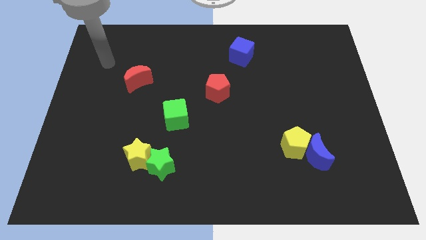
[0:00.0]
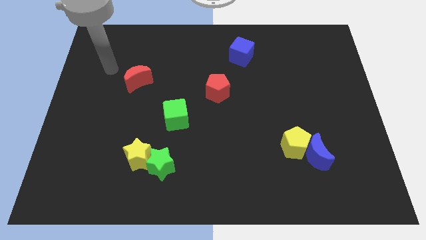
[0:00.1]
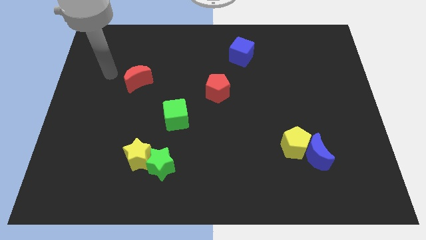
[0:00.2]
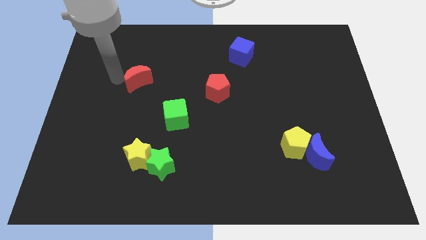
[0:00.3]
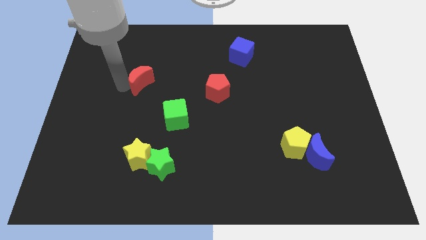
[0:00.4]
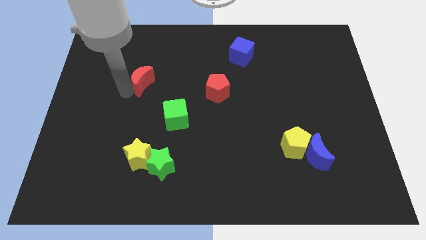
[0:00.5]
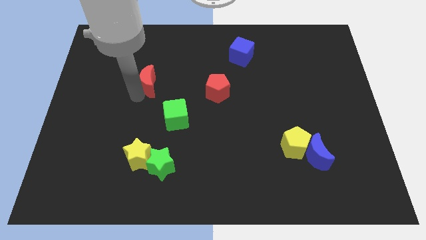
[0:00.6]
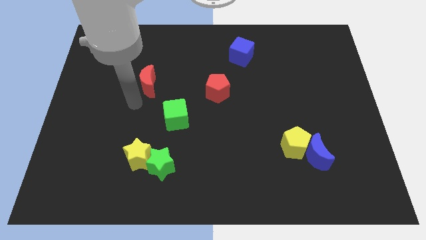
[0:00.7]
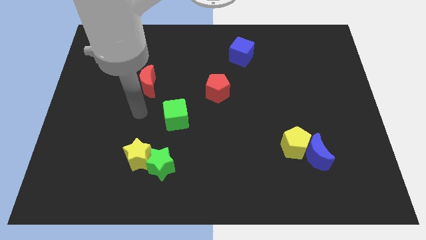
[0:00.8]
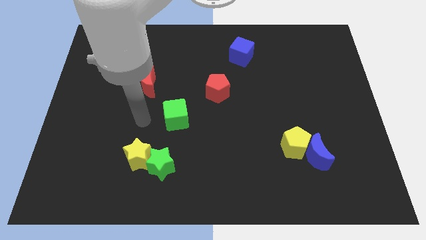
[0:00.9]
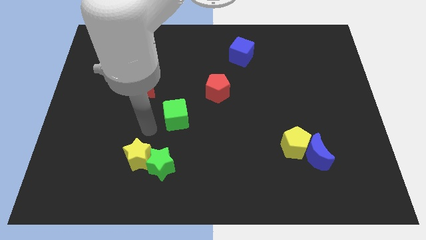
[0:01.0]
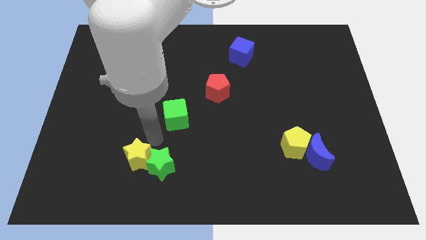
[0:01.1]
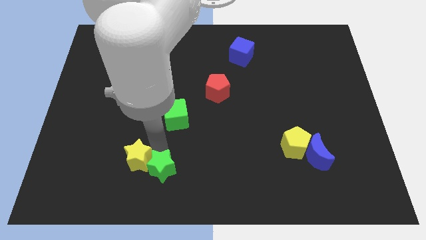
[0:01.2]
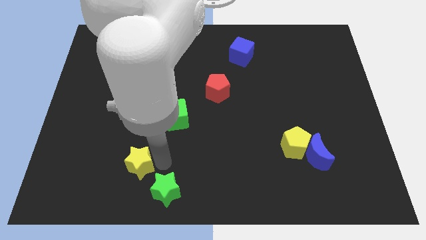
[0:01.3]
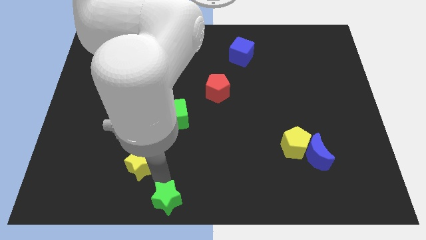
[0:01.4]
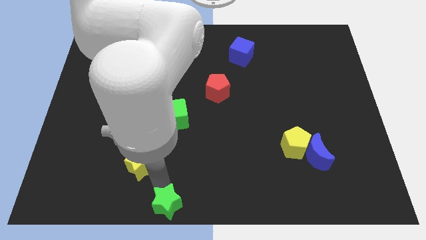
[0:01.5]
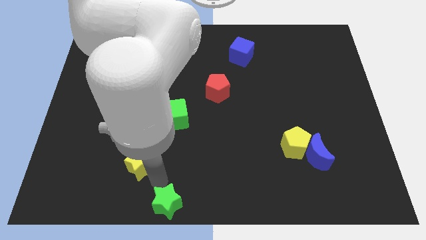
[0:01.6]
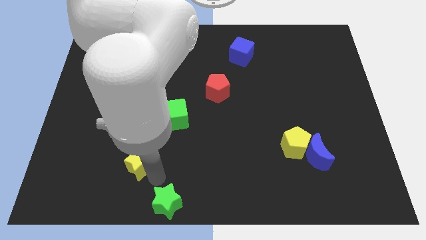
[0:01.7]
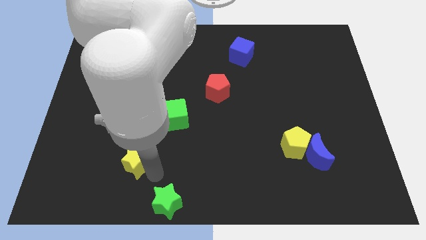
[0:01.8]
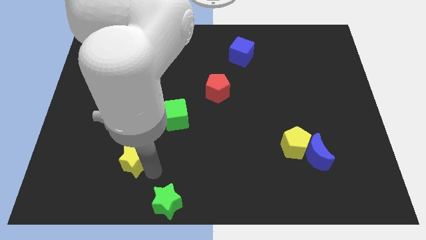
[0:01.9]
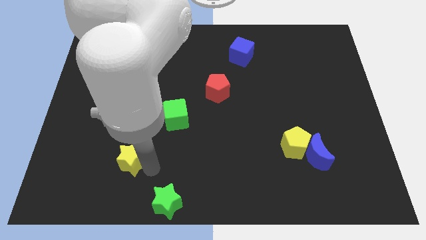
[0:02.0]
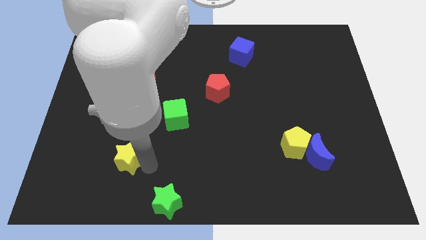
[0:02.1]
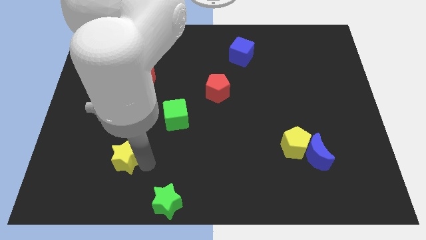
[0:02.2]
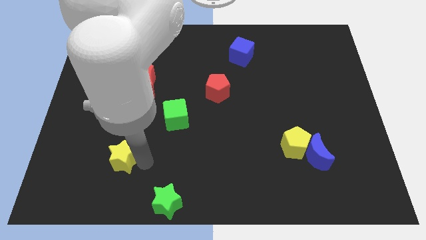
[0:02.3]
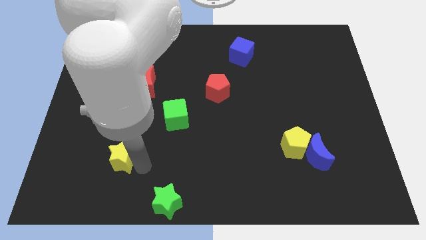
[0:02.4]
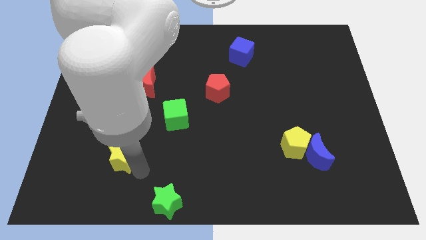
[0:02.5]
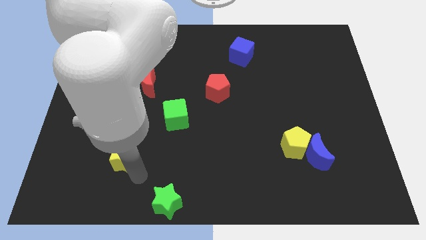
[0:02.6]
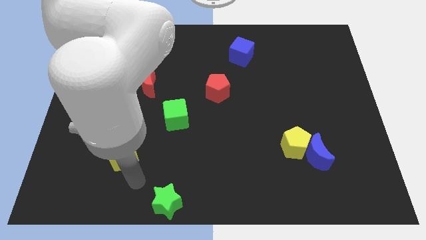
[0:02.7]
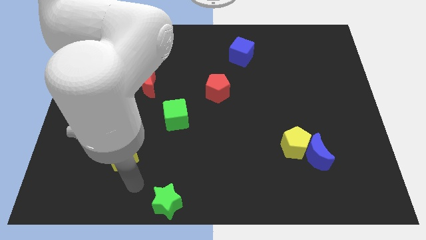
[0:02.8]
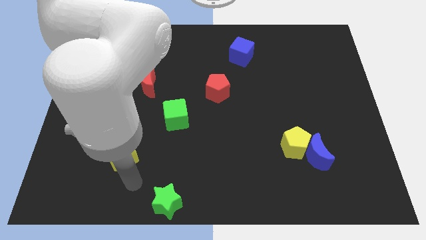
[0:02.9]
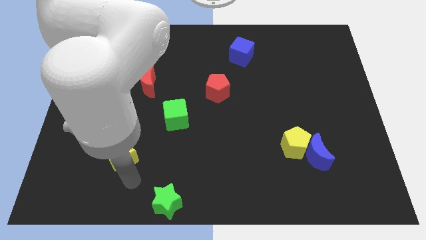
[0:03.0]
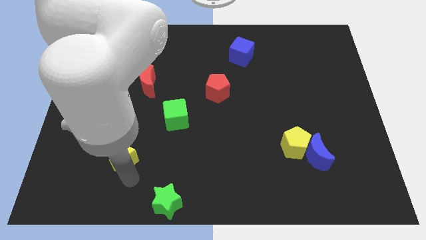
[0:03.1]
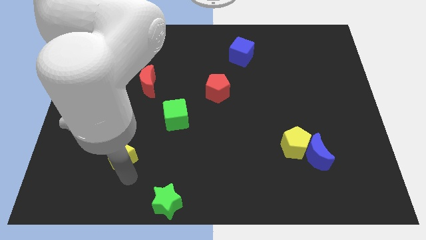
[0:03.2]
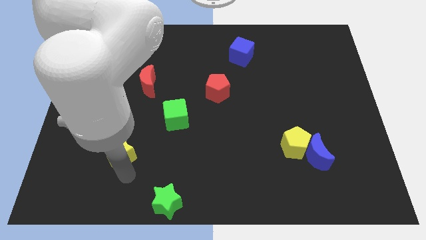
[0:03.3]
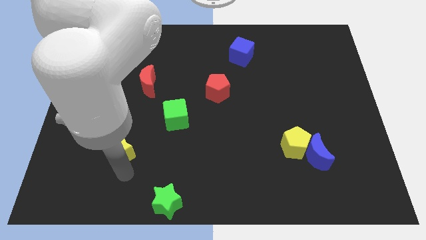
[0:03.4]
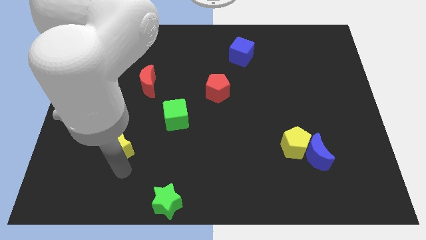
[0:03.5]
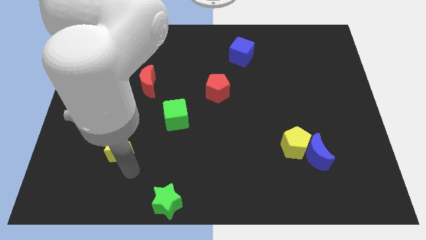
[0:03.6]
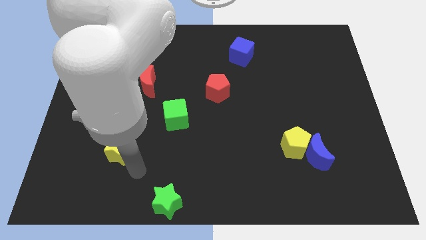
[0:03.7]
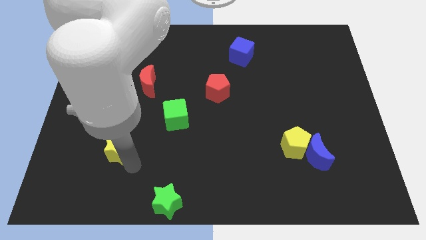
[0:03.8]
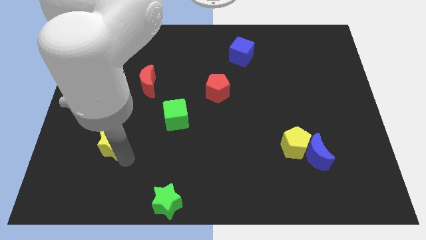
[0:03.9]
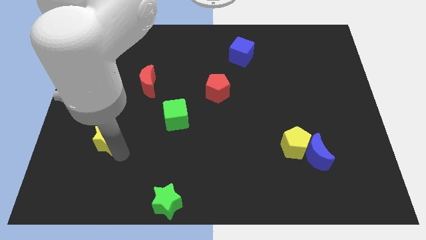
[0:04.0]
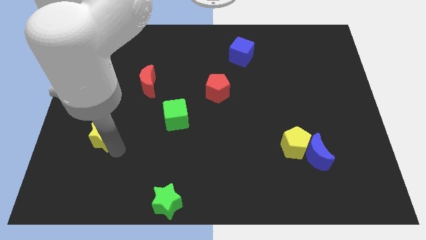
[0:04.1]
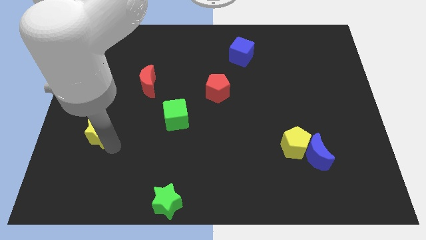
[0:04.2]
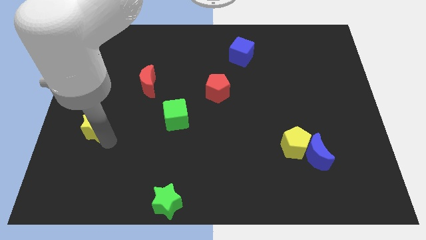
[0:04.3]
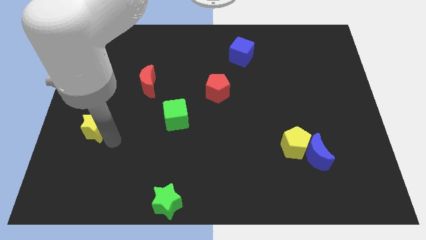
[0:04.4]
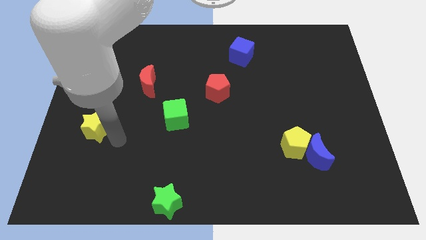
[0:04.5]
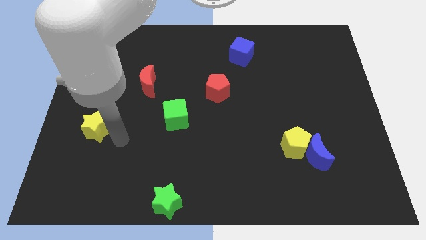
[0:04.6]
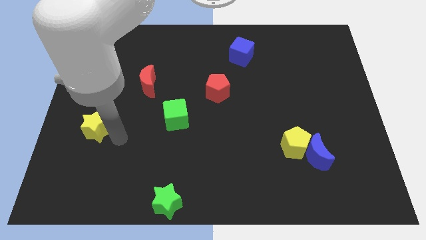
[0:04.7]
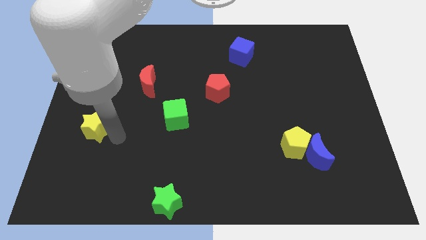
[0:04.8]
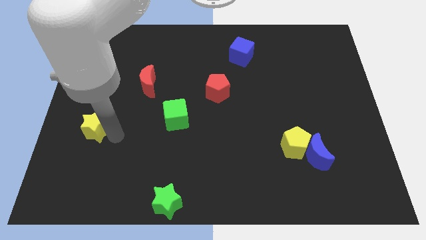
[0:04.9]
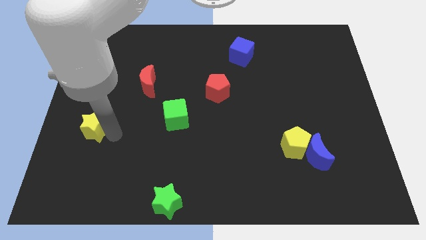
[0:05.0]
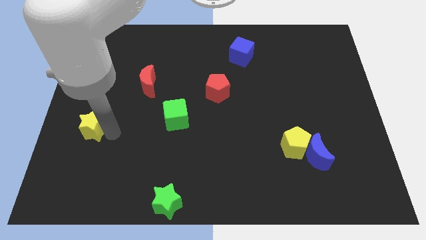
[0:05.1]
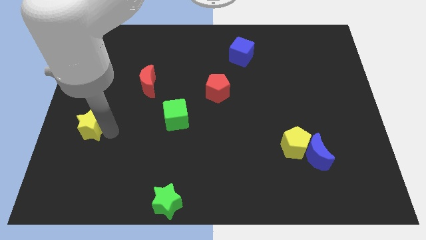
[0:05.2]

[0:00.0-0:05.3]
push the yellow star to the center left

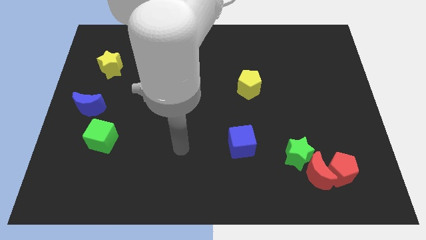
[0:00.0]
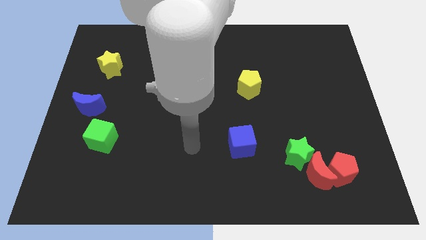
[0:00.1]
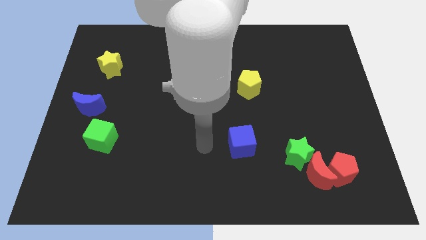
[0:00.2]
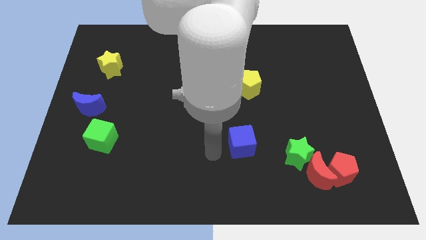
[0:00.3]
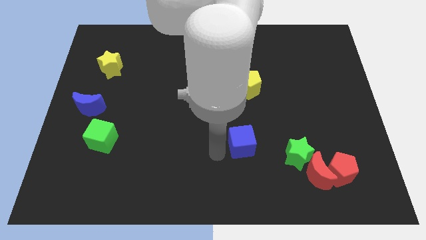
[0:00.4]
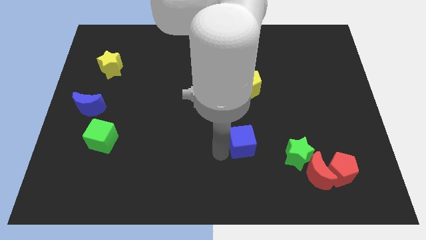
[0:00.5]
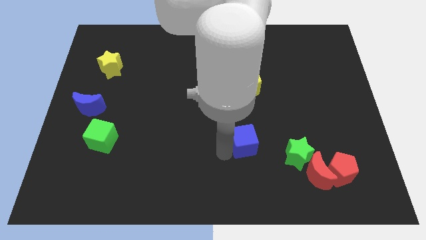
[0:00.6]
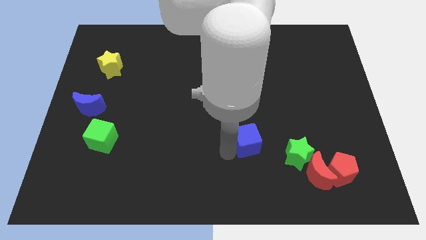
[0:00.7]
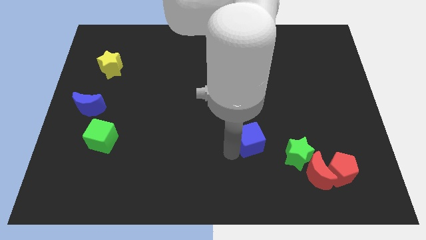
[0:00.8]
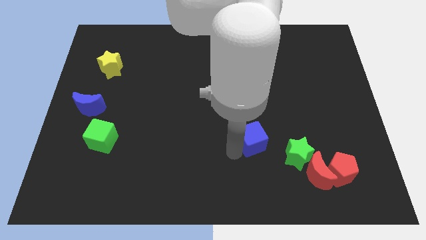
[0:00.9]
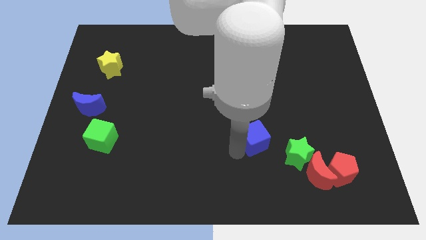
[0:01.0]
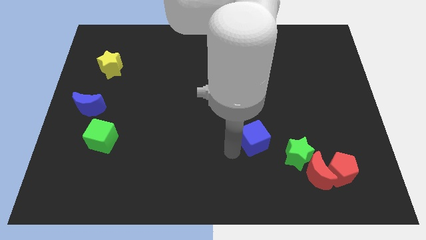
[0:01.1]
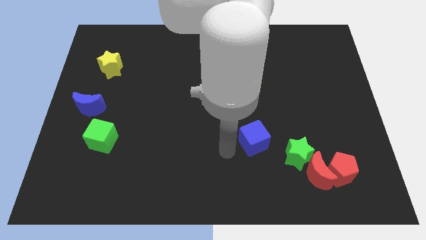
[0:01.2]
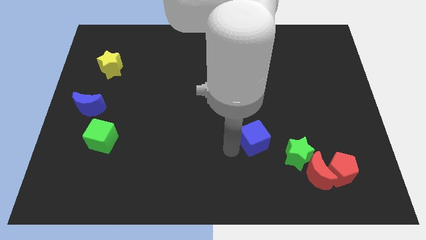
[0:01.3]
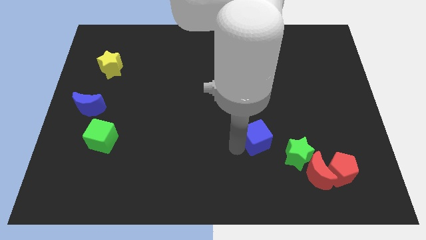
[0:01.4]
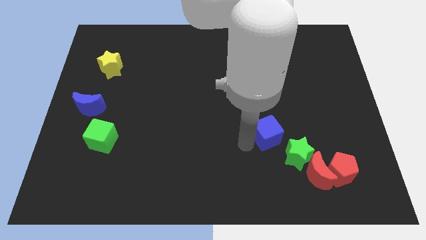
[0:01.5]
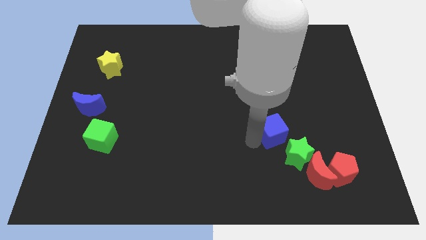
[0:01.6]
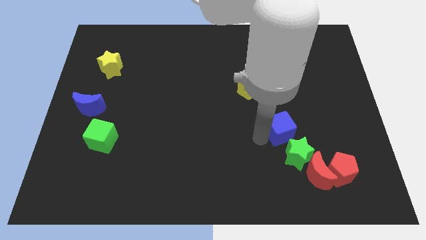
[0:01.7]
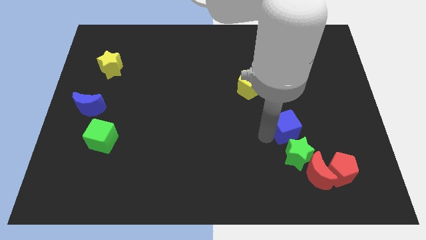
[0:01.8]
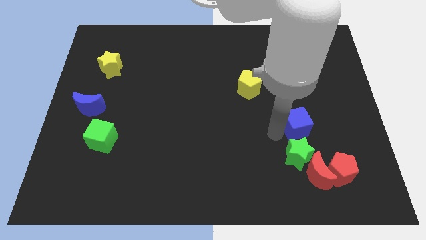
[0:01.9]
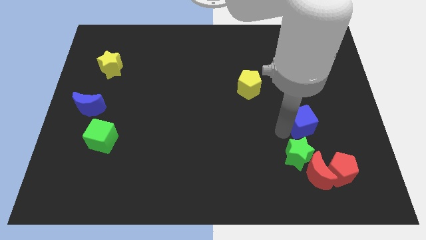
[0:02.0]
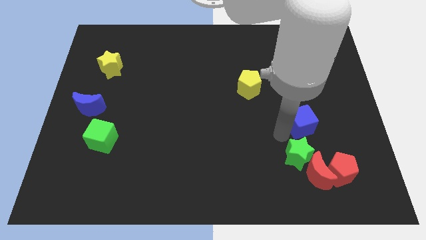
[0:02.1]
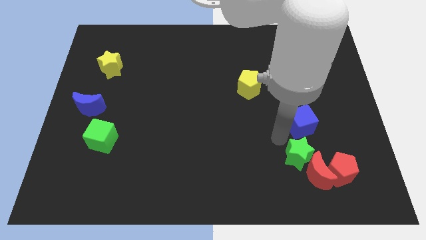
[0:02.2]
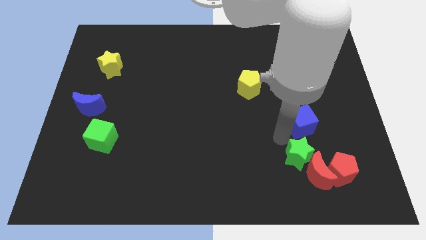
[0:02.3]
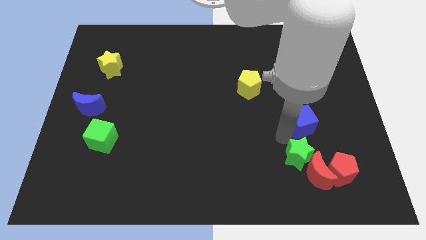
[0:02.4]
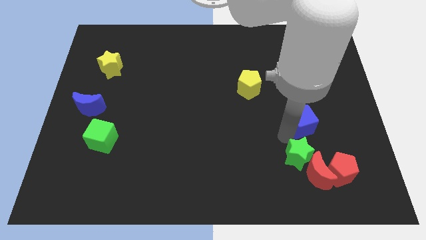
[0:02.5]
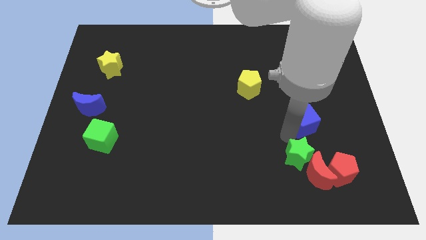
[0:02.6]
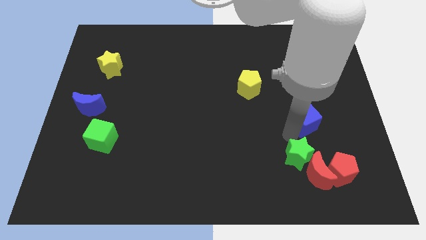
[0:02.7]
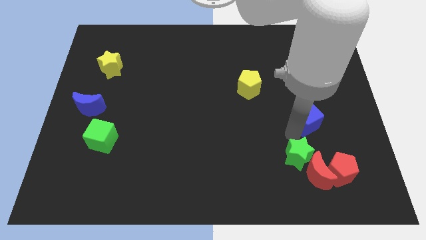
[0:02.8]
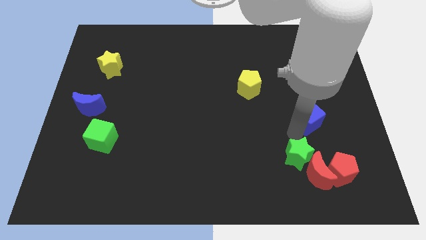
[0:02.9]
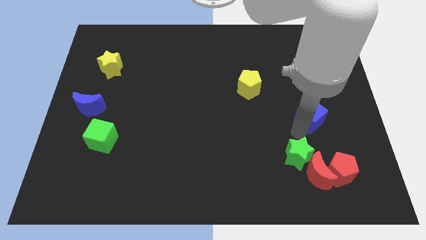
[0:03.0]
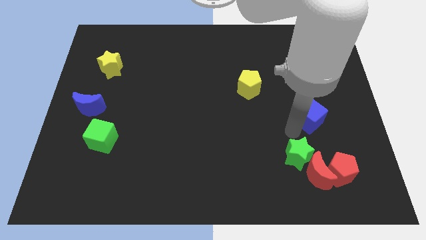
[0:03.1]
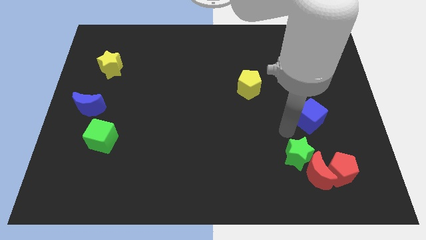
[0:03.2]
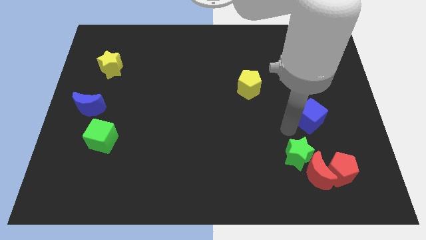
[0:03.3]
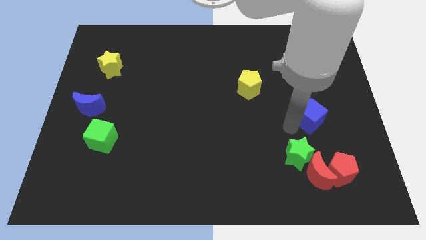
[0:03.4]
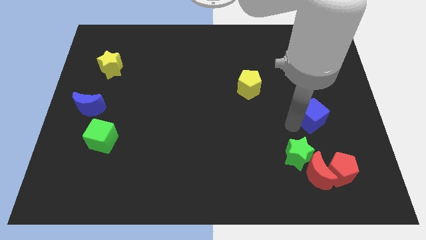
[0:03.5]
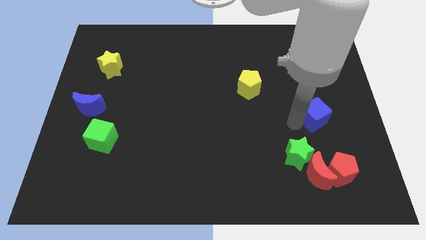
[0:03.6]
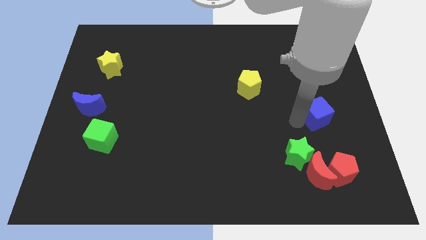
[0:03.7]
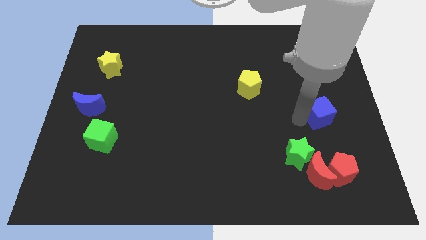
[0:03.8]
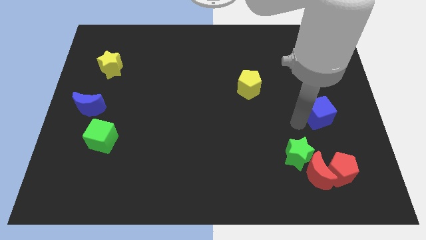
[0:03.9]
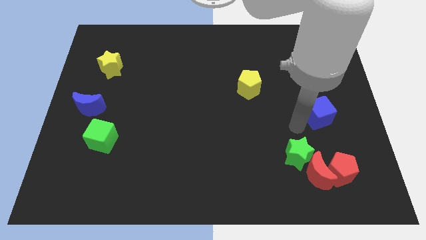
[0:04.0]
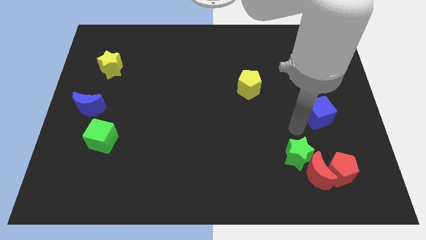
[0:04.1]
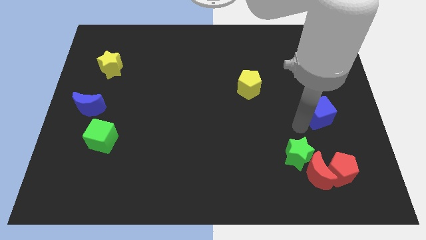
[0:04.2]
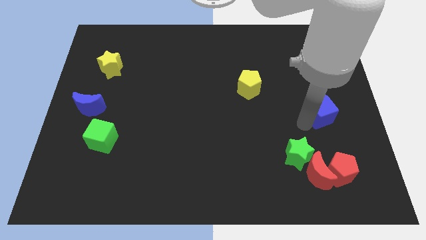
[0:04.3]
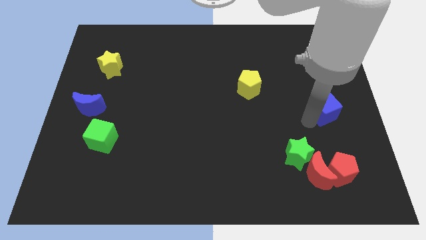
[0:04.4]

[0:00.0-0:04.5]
slide the blue cube to the right side of the board
